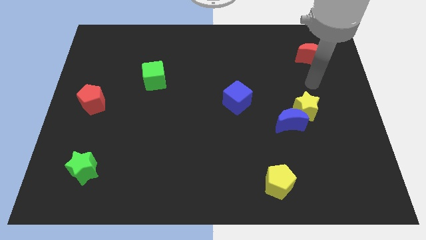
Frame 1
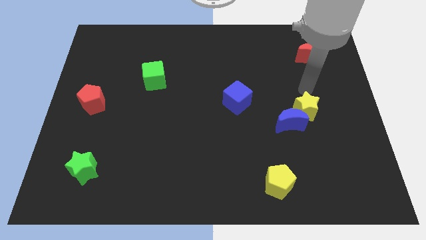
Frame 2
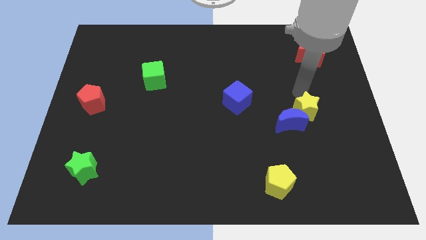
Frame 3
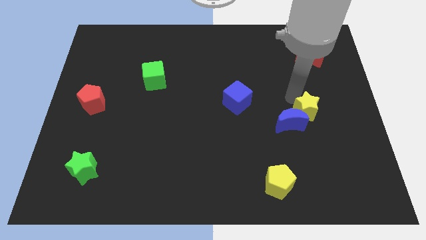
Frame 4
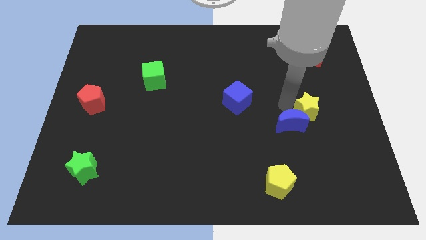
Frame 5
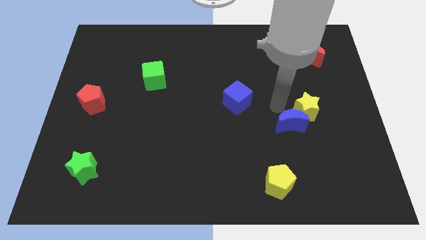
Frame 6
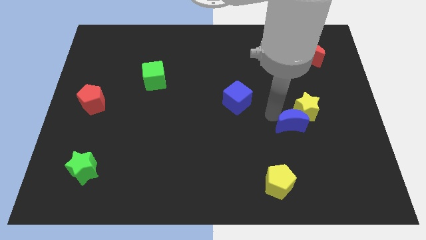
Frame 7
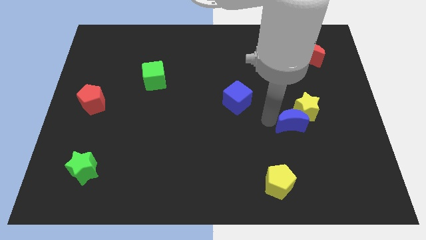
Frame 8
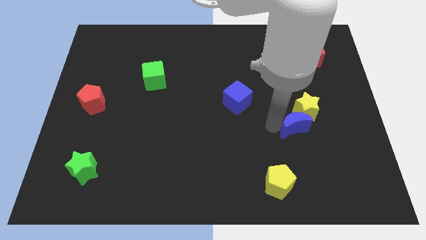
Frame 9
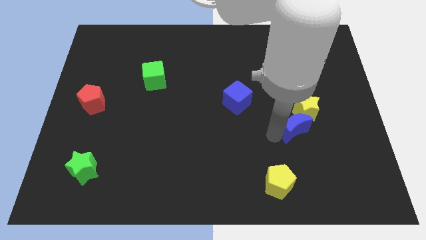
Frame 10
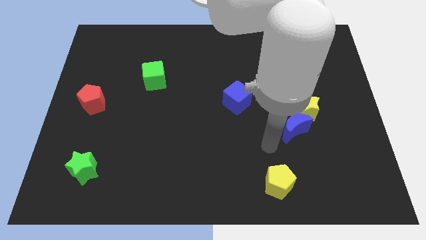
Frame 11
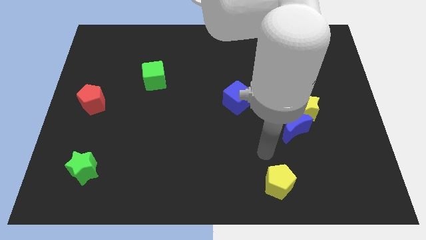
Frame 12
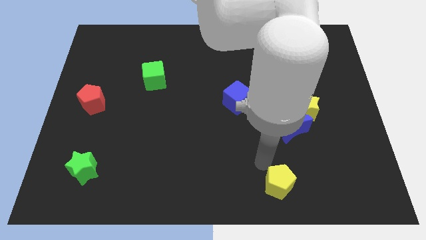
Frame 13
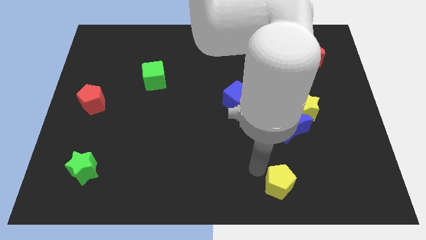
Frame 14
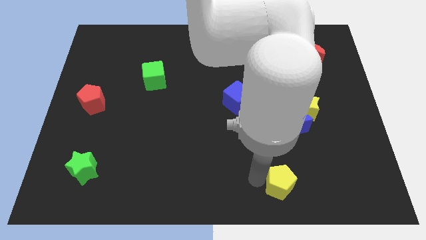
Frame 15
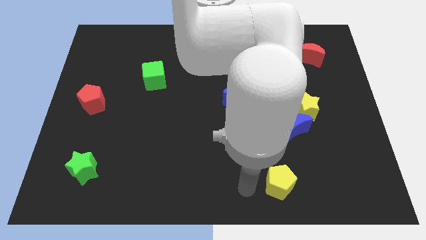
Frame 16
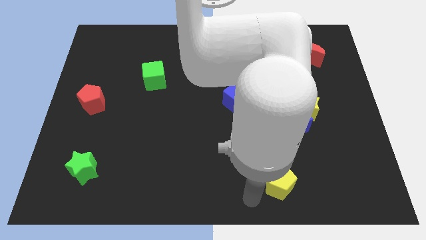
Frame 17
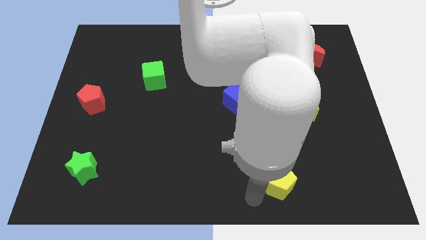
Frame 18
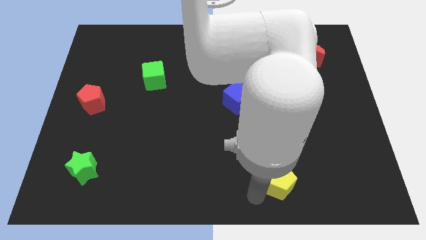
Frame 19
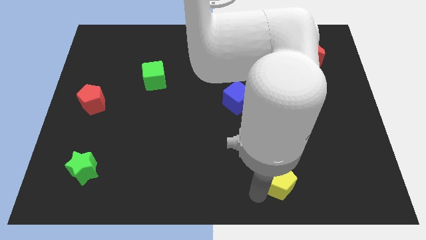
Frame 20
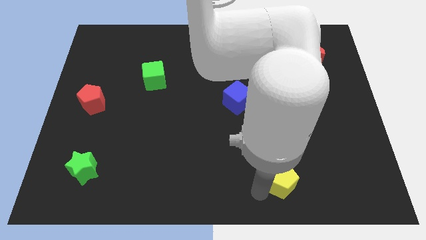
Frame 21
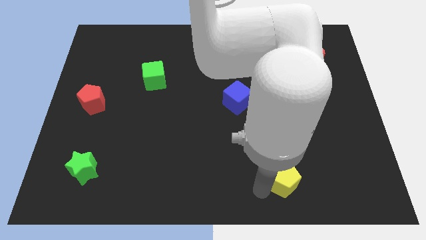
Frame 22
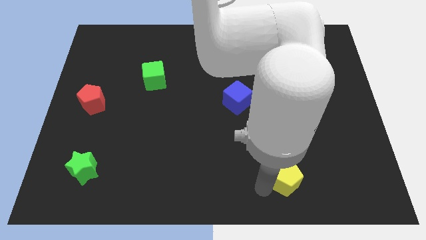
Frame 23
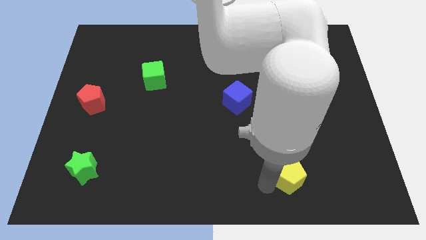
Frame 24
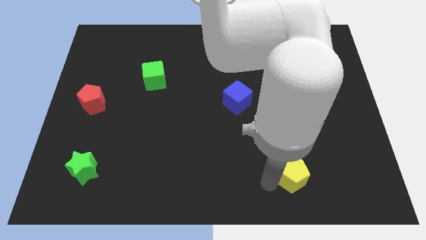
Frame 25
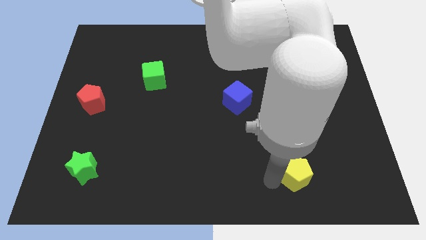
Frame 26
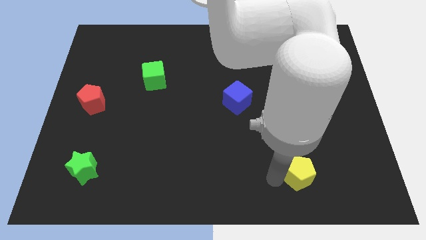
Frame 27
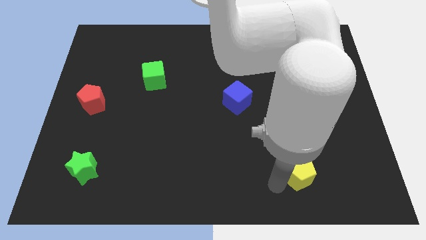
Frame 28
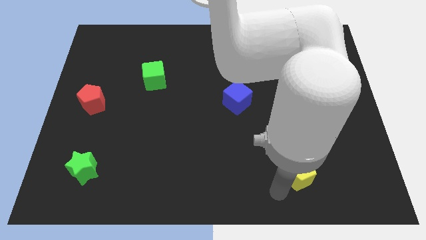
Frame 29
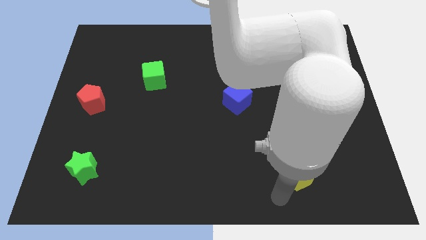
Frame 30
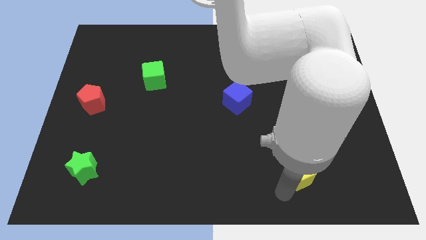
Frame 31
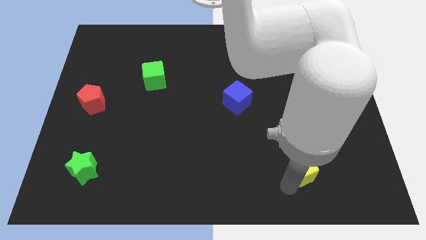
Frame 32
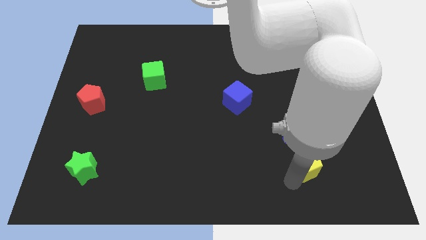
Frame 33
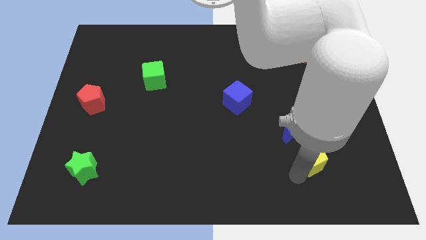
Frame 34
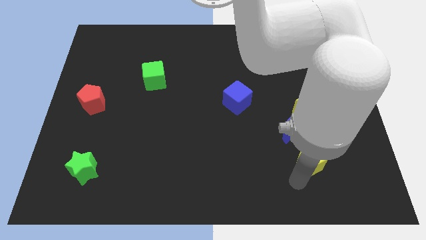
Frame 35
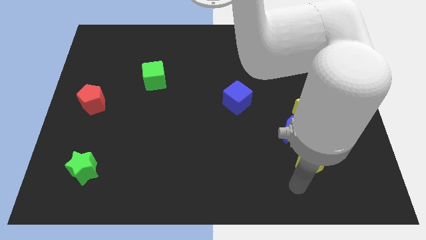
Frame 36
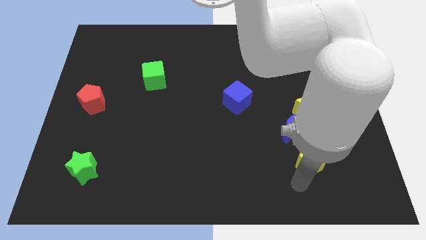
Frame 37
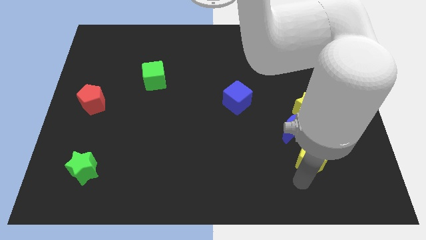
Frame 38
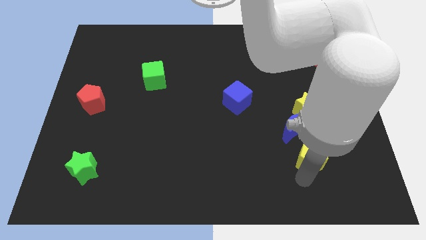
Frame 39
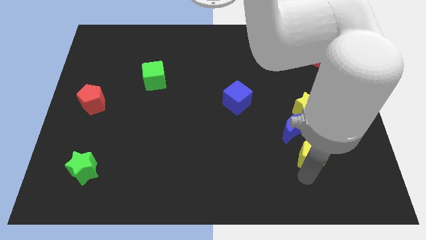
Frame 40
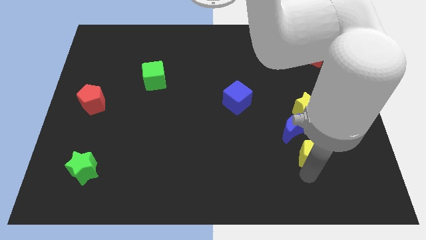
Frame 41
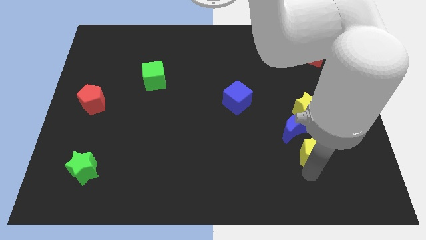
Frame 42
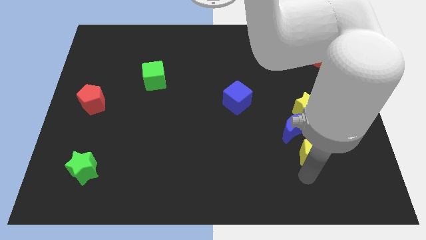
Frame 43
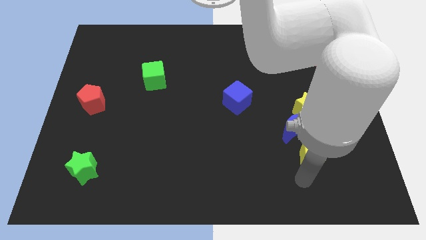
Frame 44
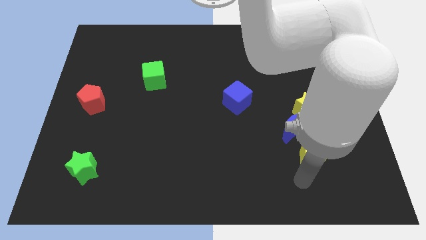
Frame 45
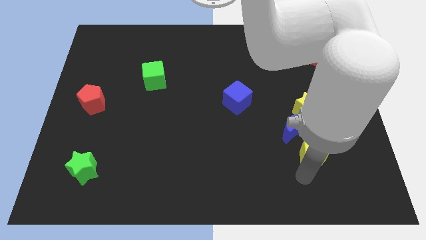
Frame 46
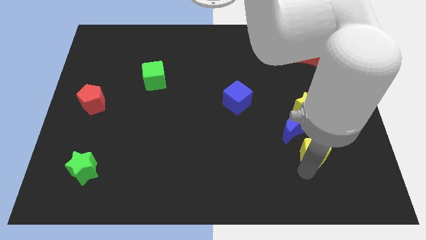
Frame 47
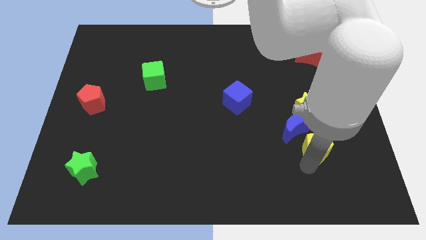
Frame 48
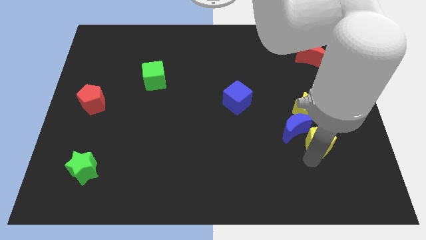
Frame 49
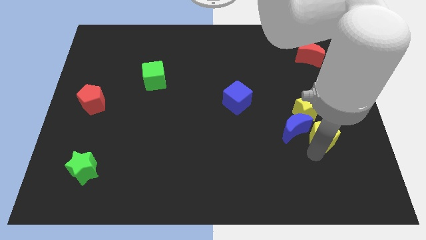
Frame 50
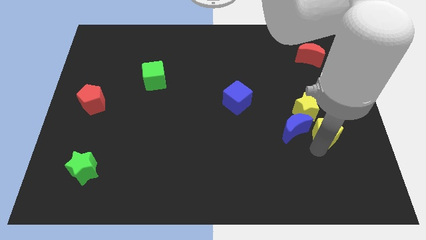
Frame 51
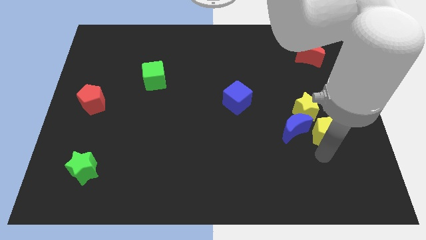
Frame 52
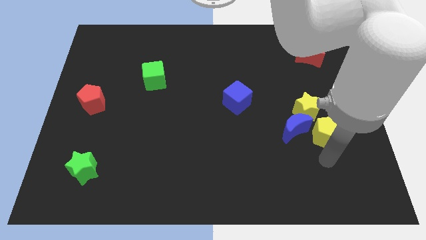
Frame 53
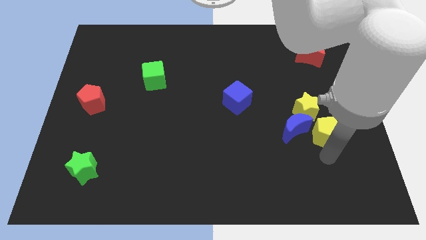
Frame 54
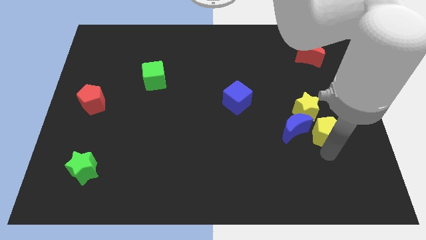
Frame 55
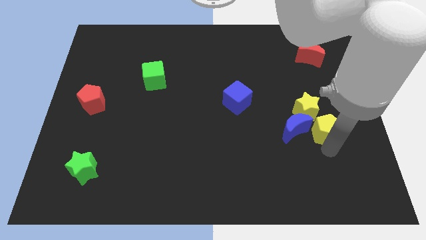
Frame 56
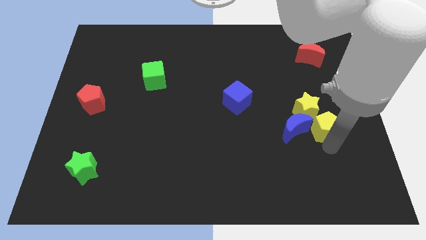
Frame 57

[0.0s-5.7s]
slide the yellow pentagon to the top right of the blue moon

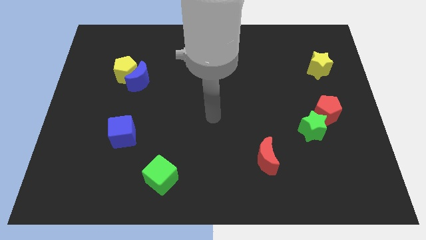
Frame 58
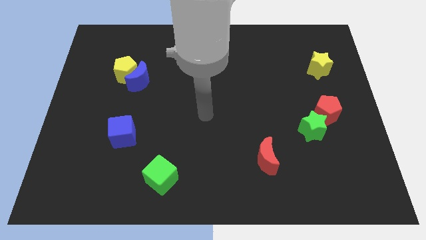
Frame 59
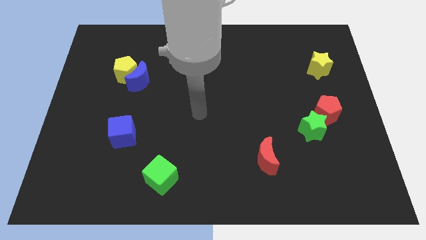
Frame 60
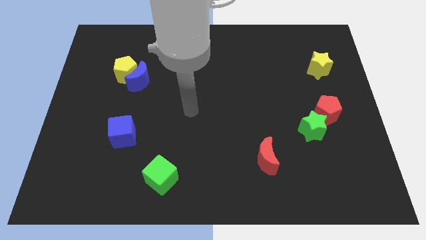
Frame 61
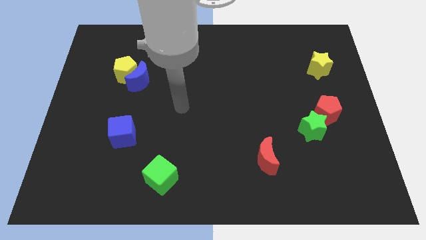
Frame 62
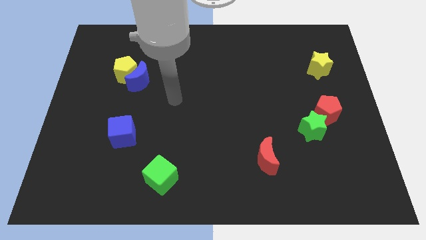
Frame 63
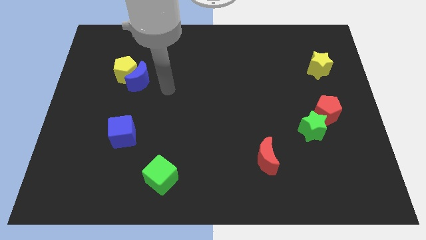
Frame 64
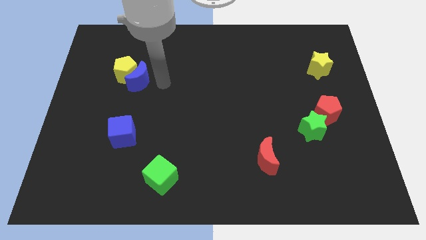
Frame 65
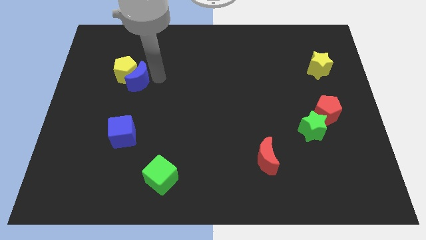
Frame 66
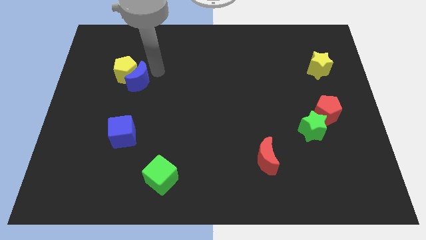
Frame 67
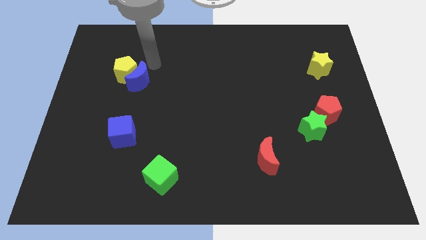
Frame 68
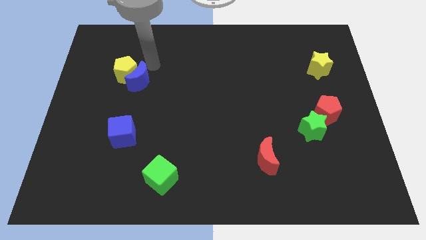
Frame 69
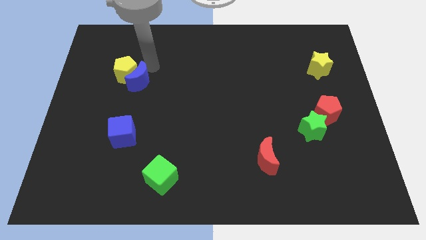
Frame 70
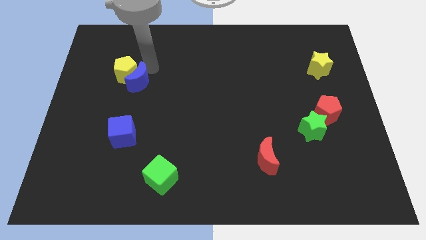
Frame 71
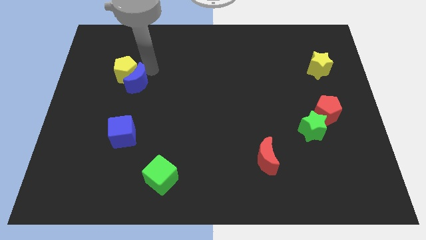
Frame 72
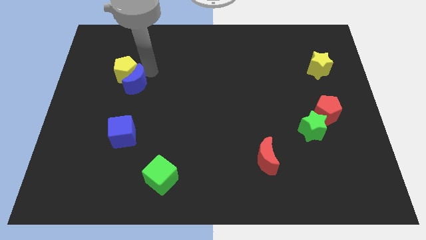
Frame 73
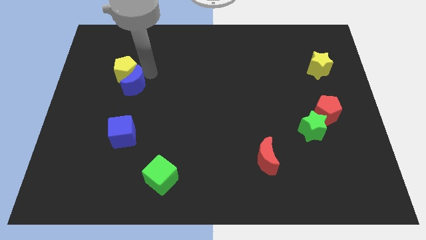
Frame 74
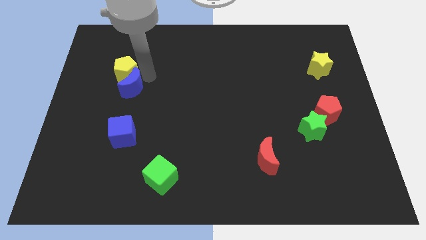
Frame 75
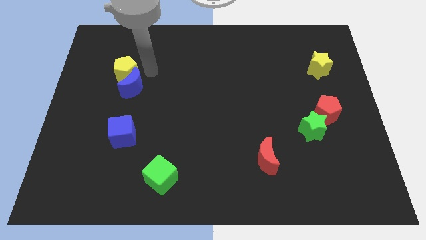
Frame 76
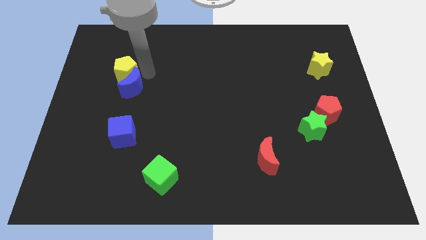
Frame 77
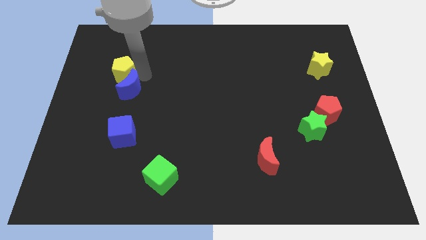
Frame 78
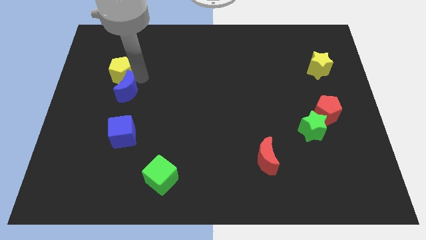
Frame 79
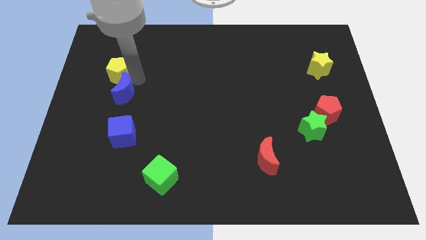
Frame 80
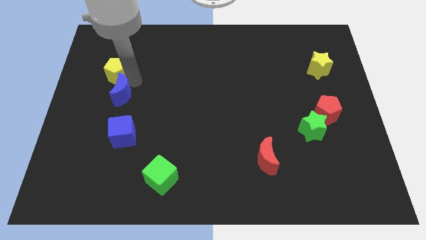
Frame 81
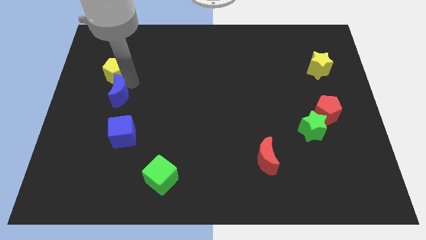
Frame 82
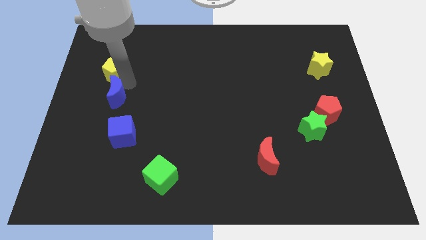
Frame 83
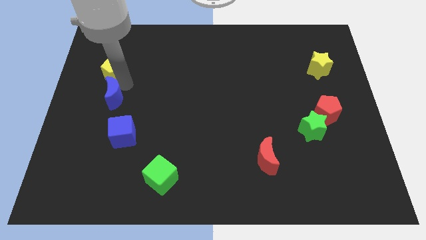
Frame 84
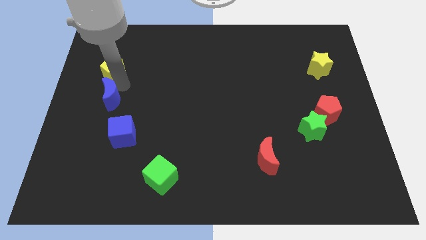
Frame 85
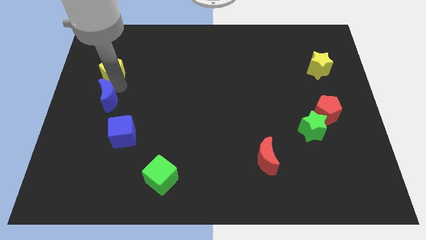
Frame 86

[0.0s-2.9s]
put the blue moon to the top left of the blue cube
